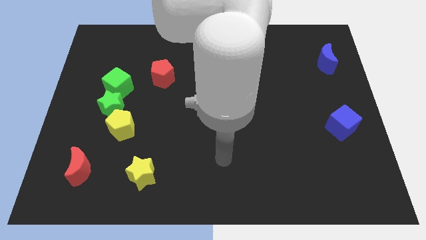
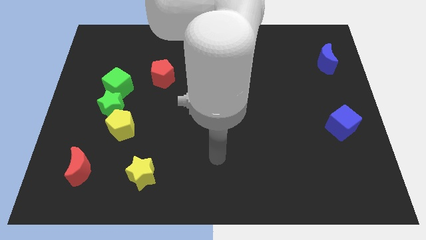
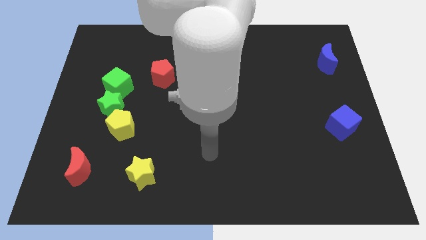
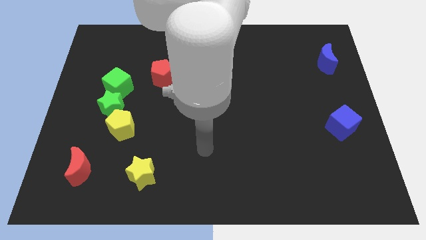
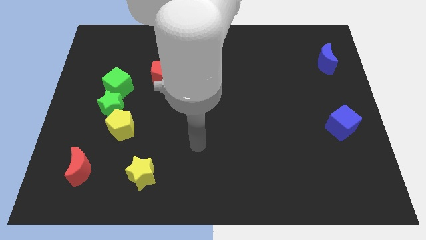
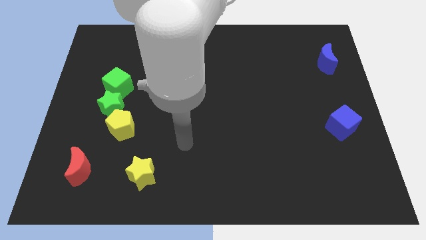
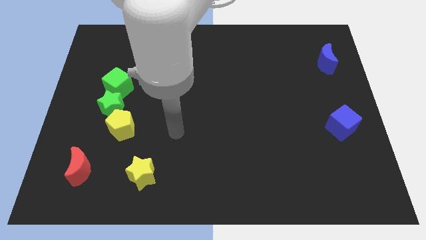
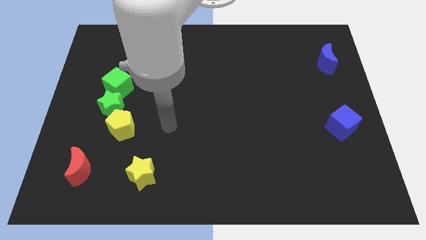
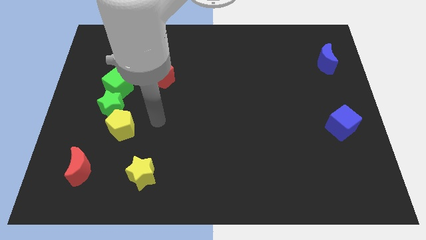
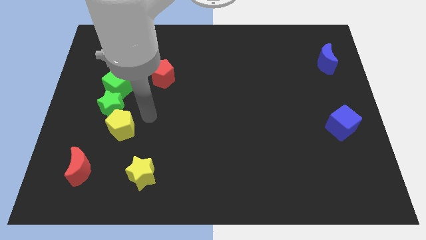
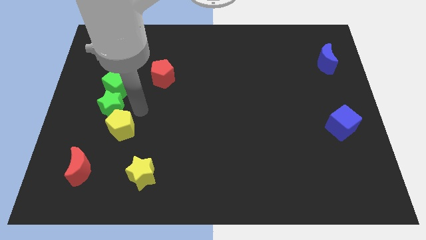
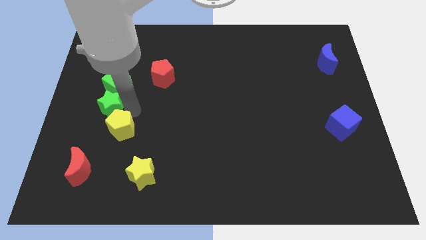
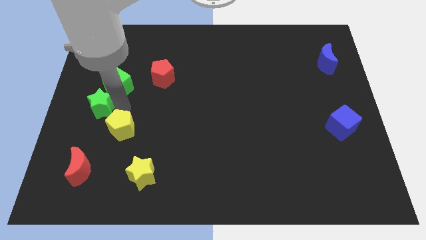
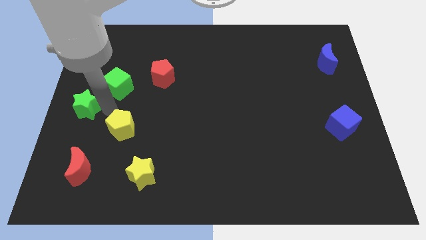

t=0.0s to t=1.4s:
separate the yellow pentagon from the green star

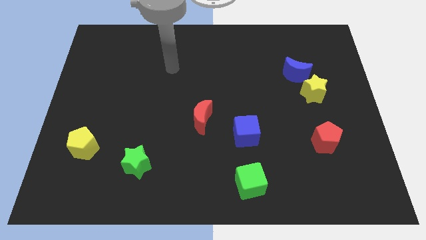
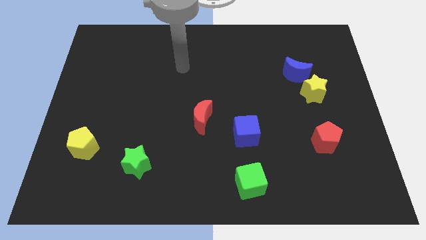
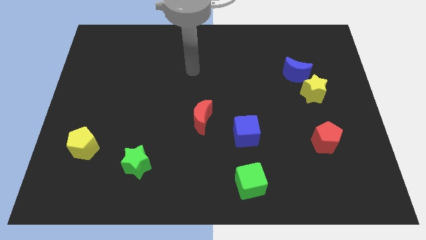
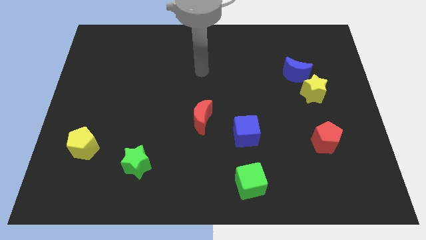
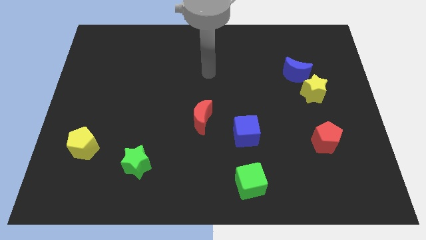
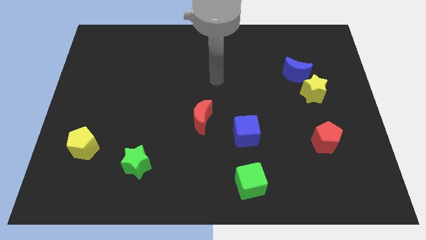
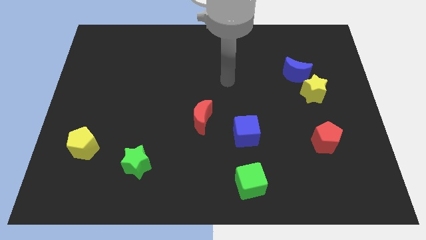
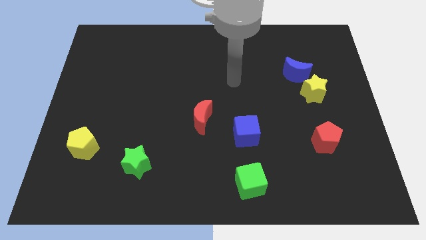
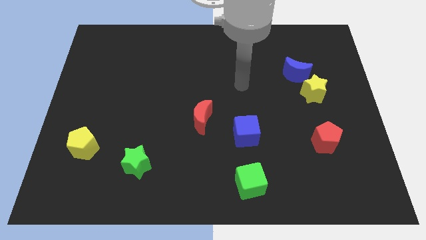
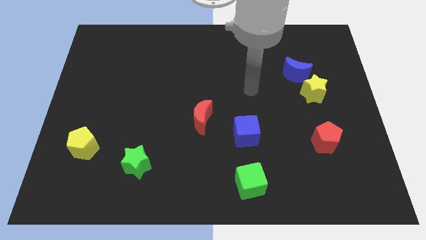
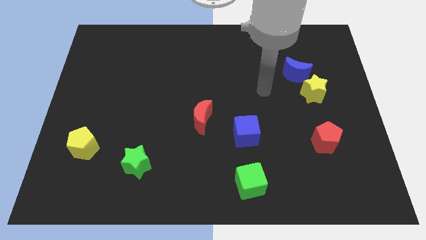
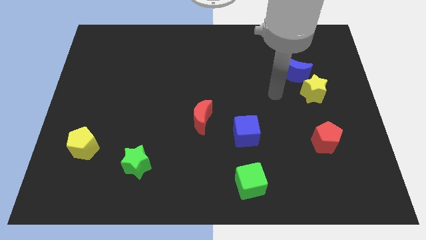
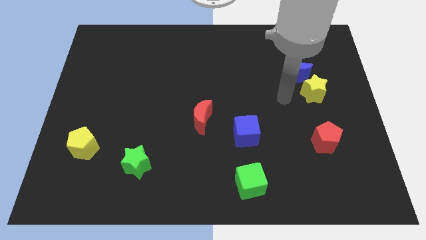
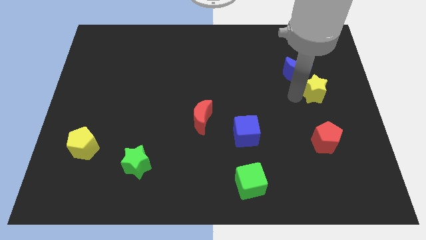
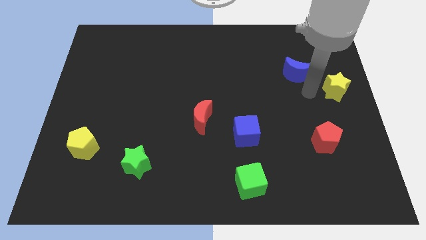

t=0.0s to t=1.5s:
pull the blue moon apart from the yellow star

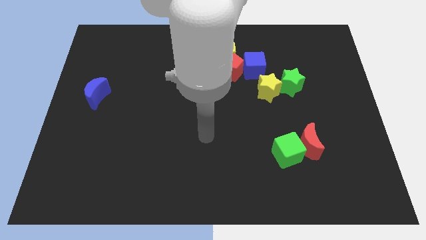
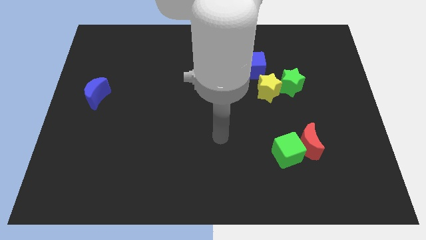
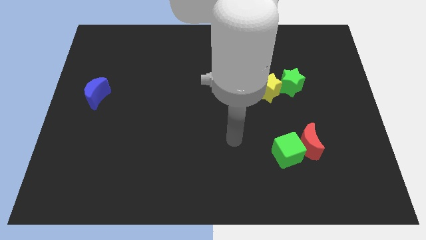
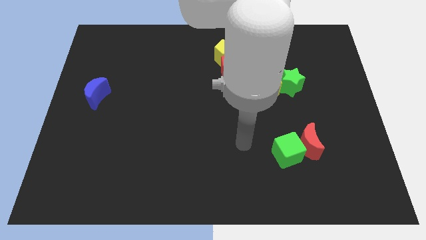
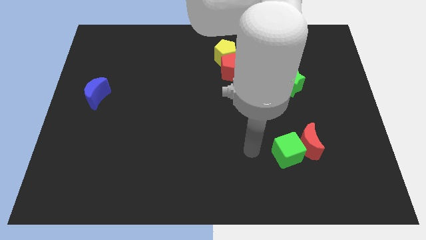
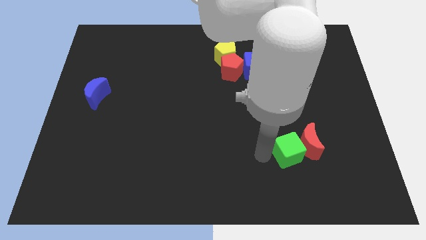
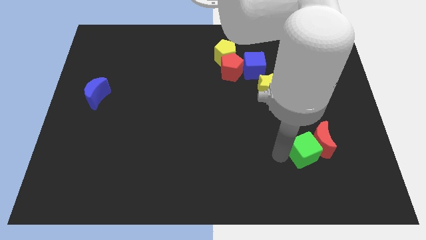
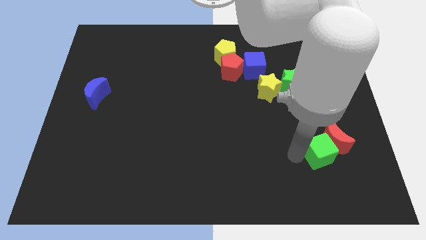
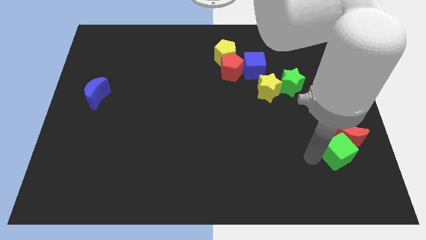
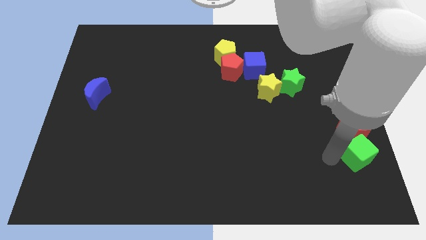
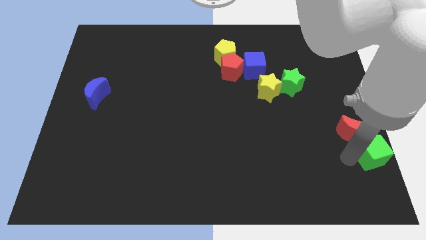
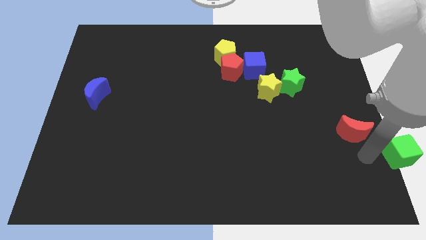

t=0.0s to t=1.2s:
pull the red moon apart from the green cube

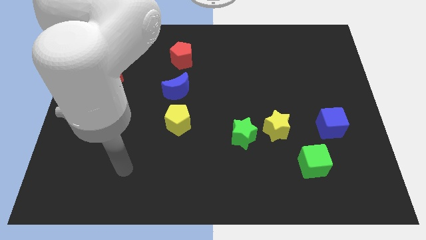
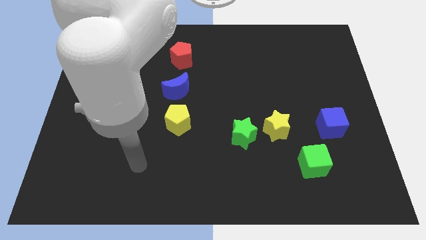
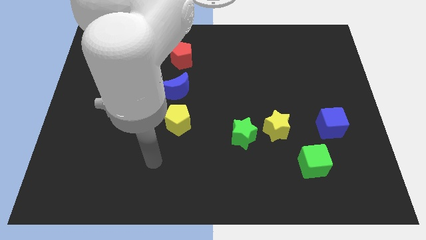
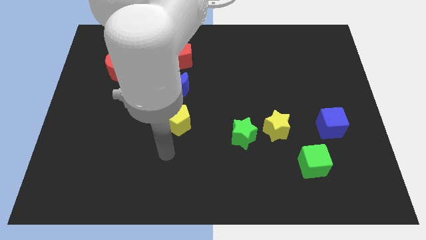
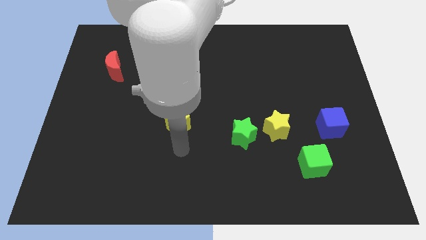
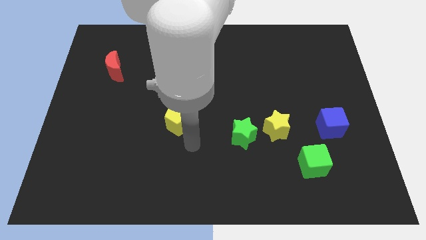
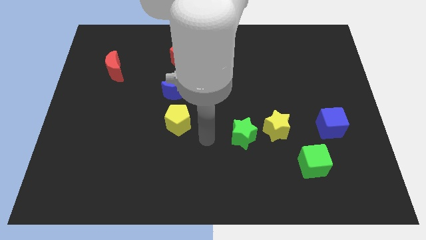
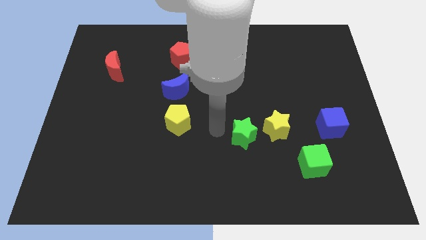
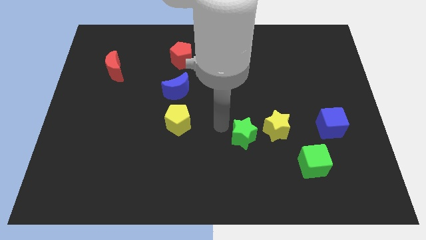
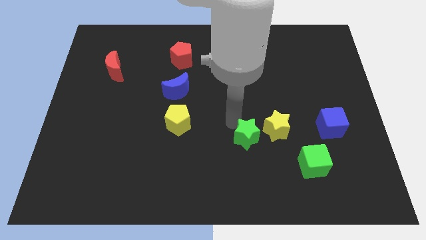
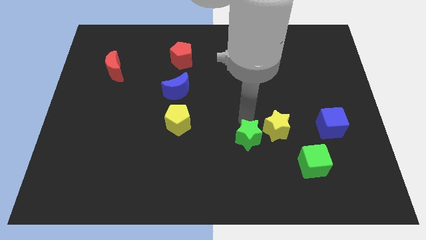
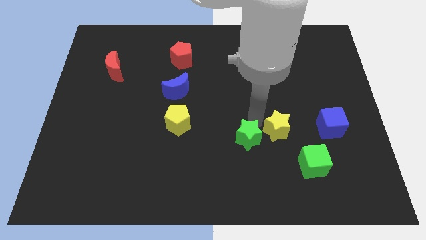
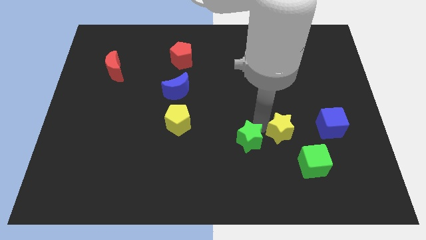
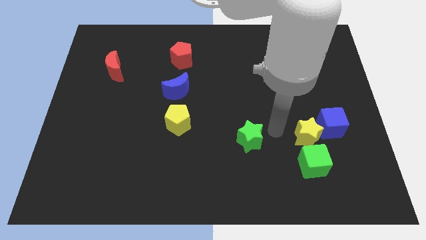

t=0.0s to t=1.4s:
move the green star away from the yellow star

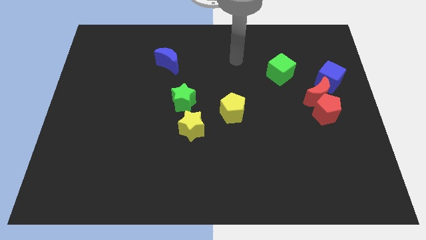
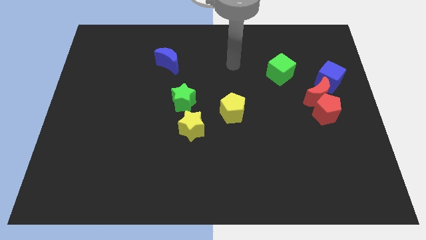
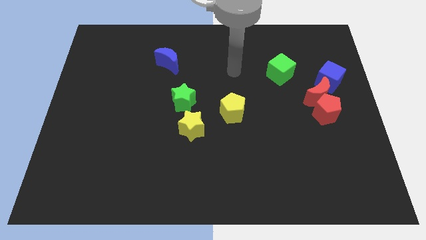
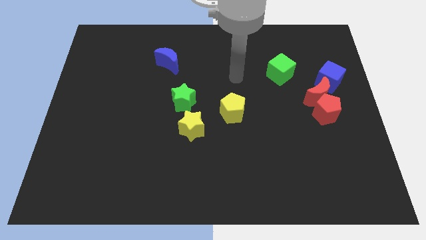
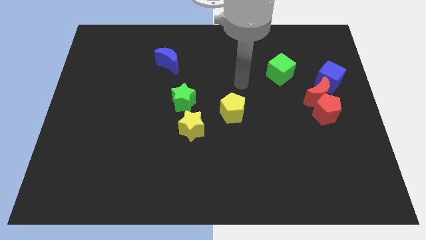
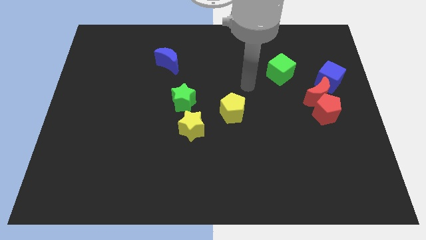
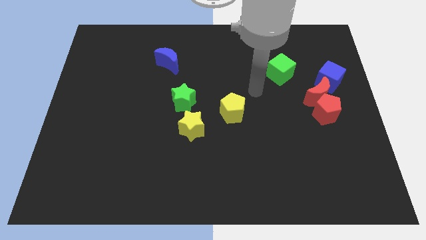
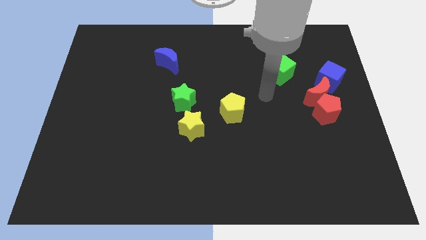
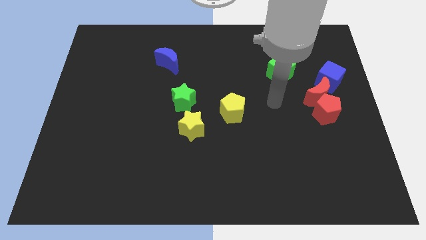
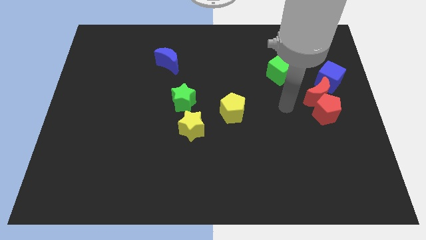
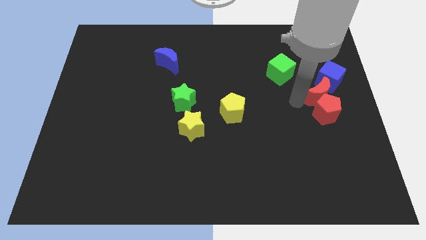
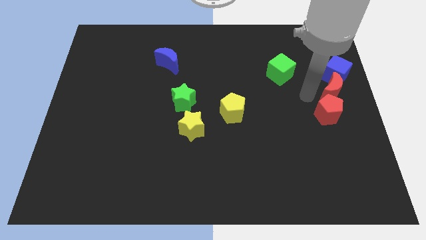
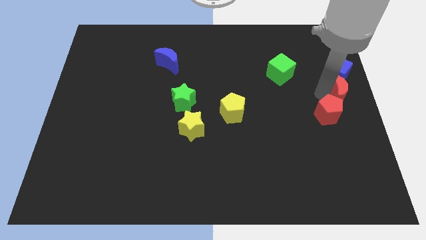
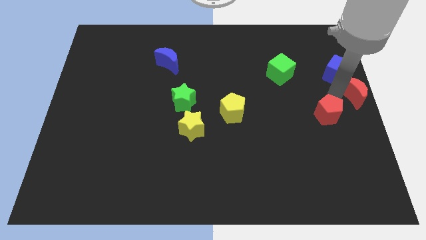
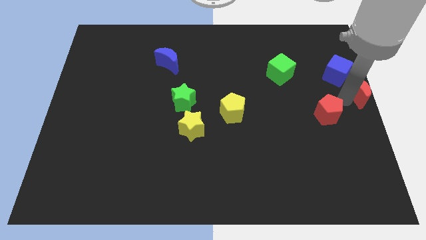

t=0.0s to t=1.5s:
pull the red pentagon apart from the red moon

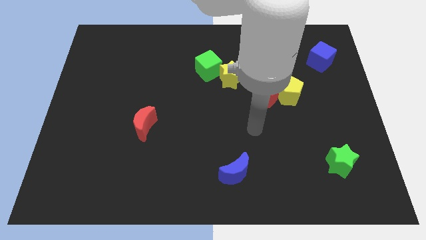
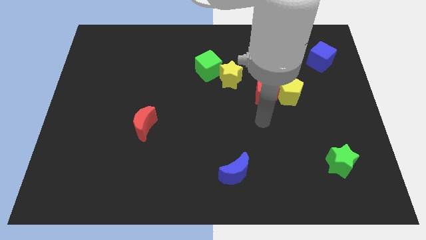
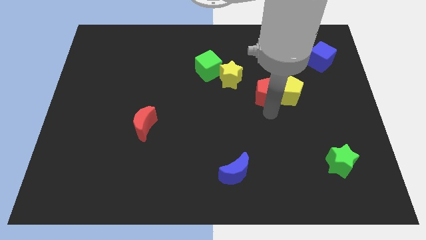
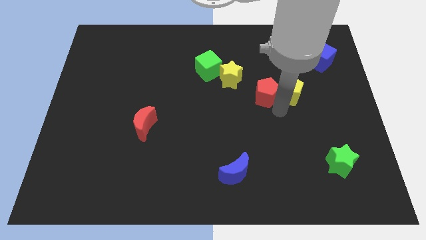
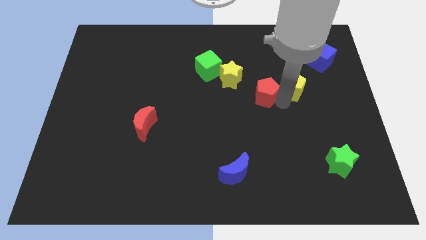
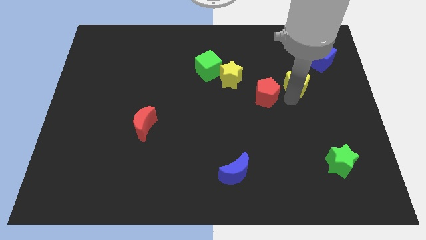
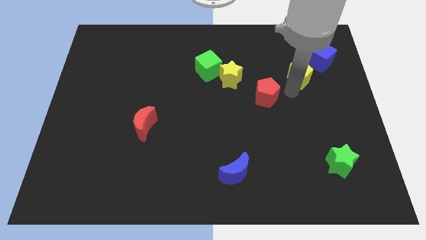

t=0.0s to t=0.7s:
move the red pentagon away from the yellow pentagon

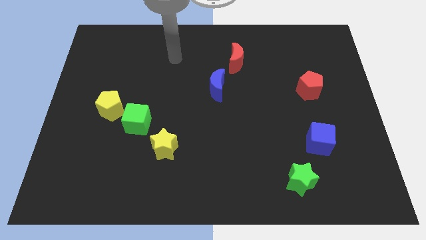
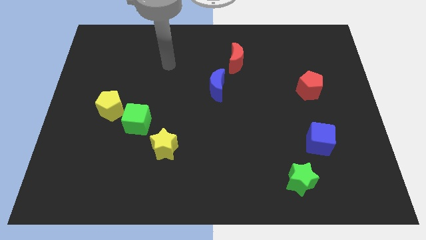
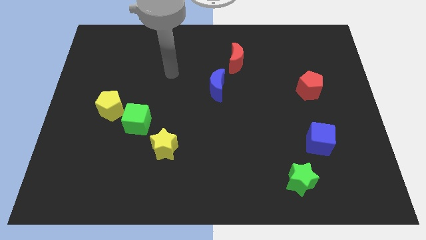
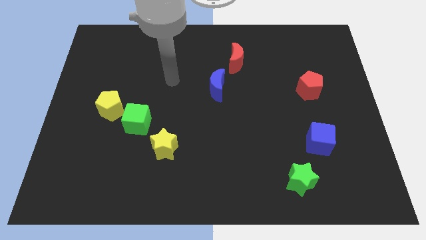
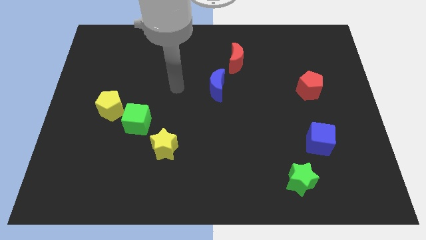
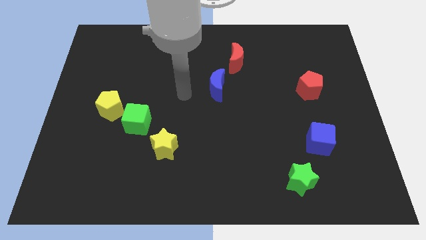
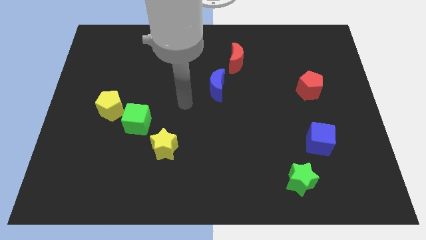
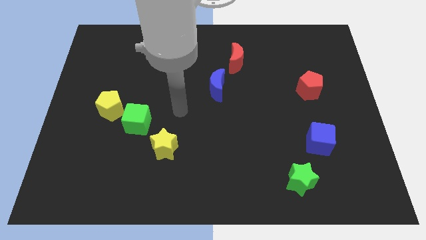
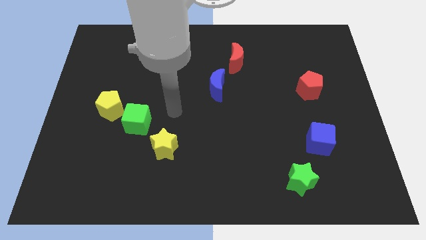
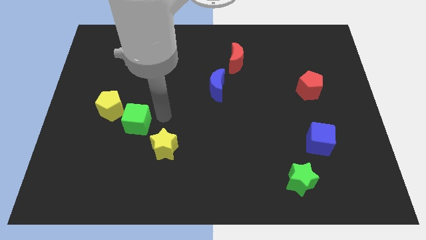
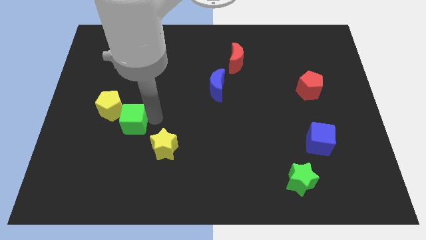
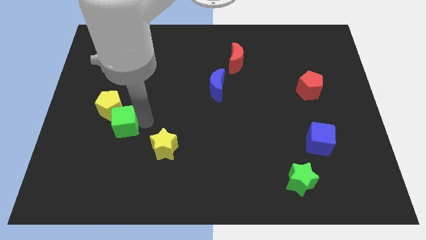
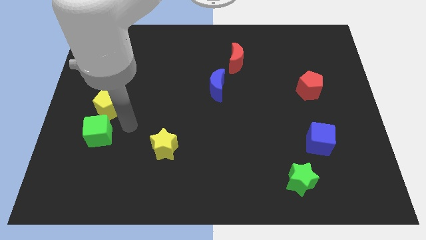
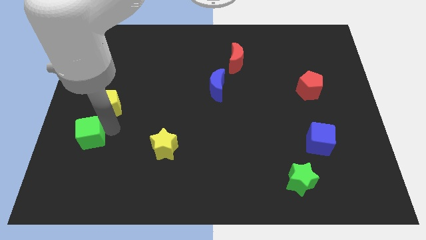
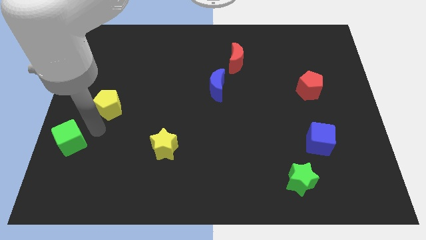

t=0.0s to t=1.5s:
pull the yellow pentagon apart from the green cube

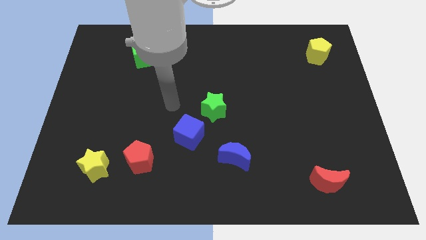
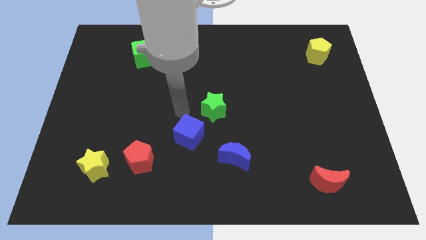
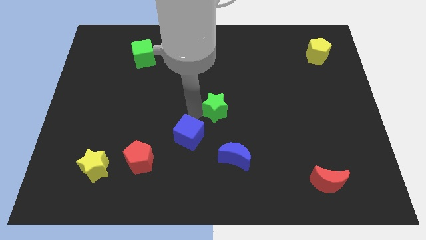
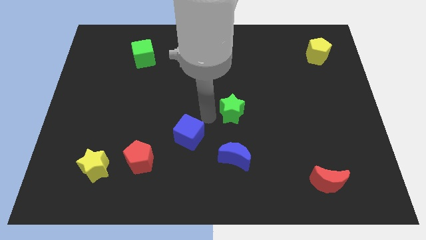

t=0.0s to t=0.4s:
pull the blue cube apart from the green star
